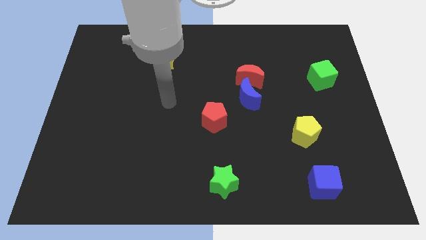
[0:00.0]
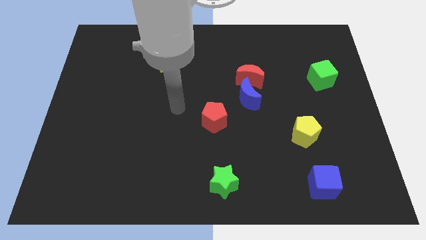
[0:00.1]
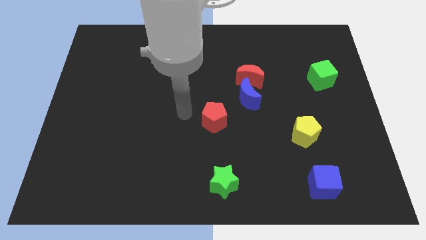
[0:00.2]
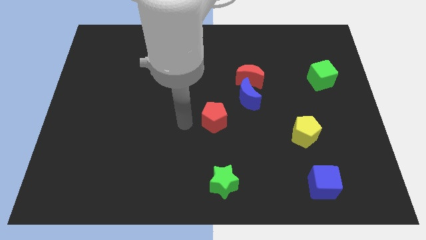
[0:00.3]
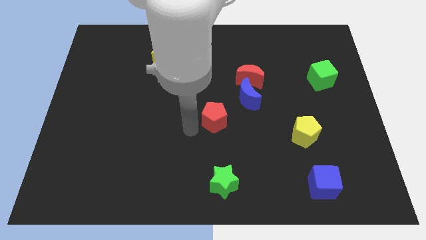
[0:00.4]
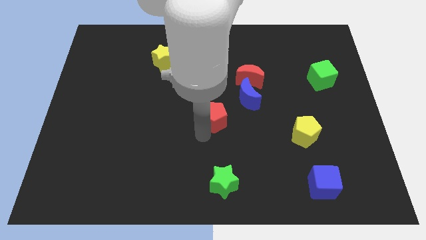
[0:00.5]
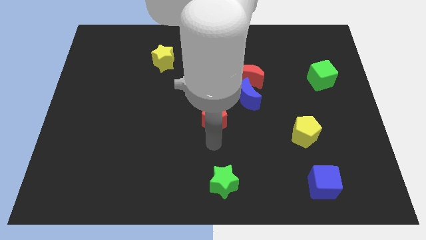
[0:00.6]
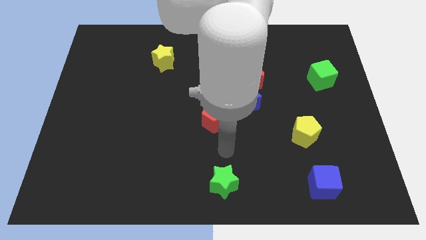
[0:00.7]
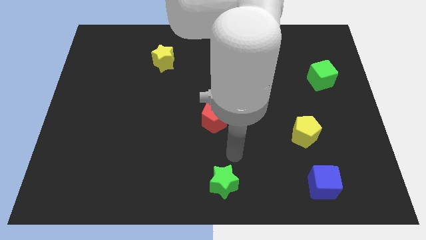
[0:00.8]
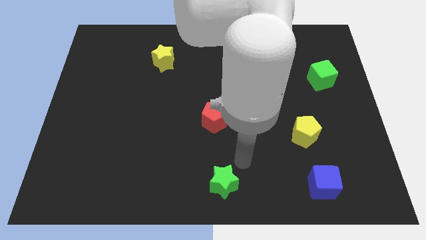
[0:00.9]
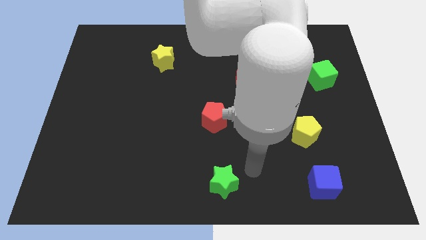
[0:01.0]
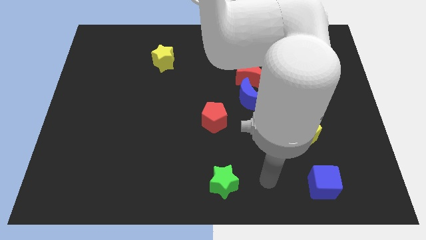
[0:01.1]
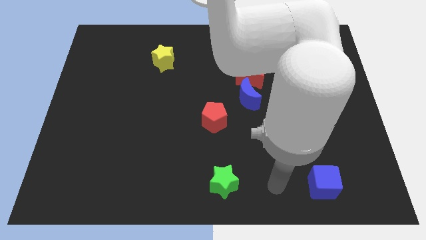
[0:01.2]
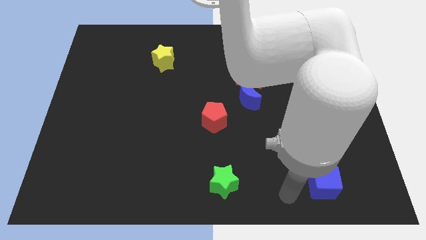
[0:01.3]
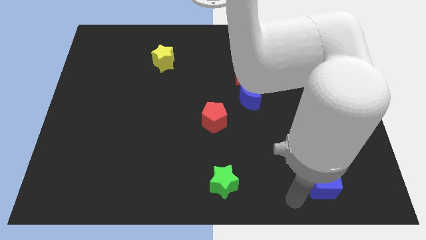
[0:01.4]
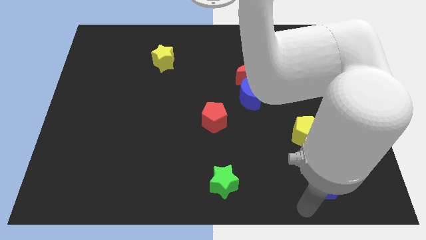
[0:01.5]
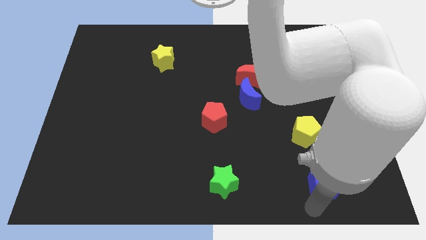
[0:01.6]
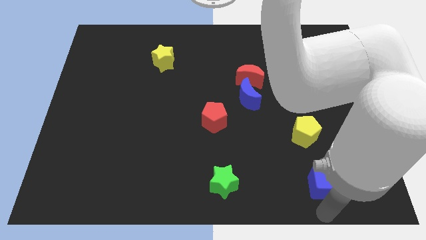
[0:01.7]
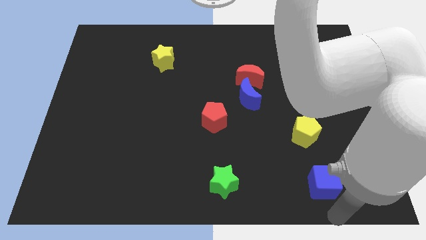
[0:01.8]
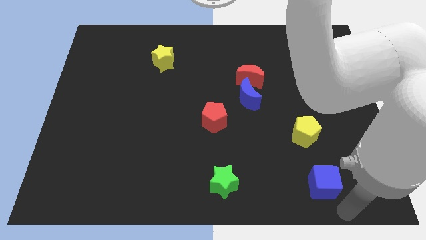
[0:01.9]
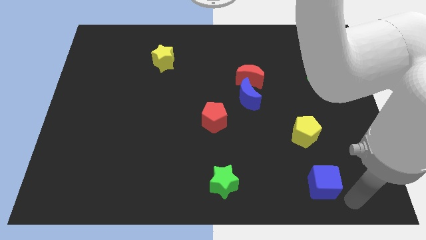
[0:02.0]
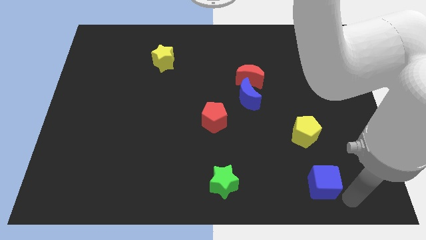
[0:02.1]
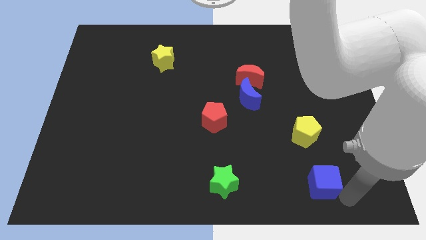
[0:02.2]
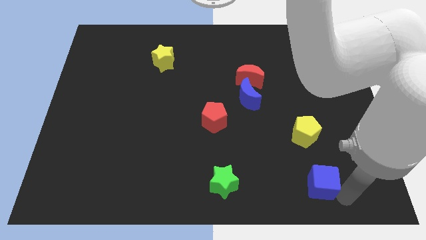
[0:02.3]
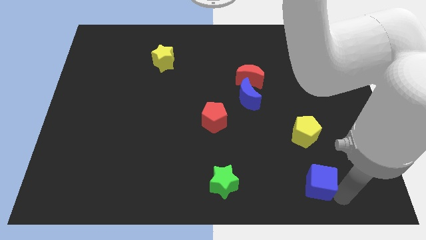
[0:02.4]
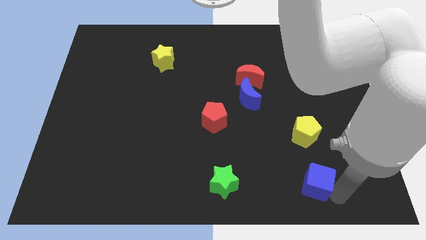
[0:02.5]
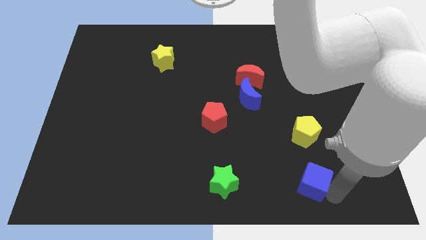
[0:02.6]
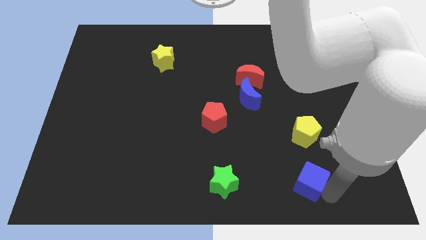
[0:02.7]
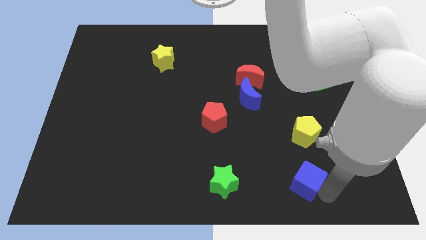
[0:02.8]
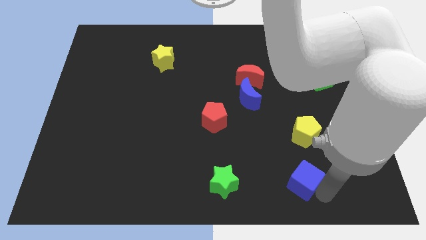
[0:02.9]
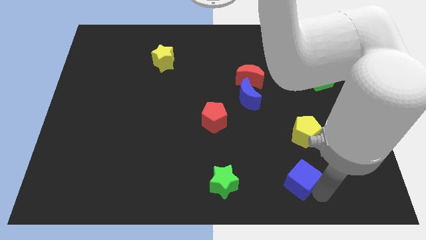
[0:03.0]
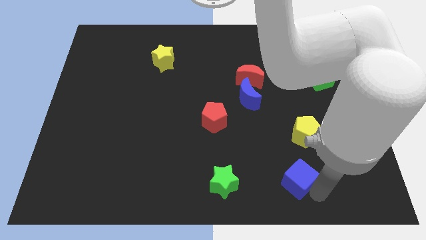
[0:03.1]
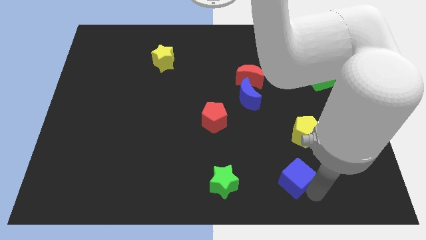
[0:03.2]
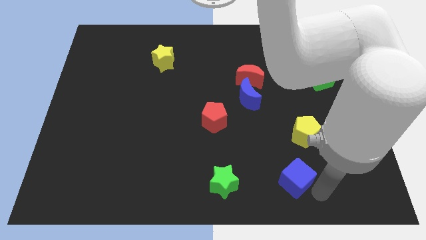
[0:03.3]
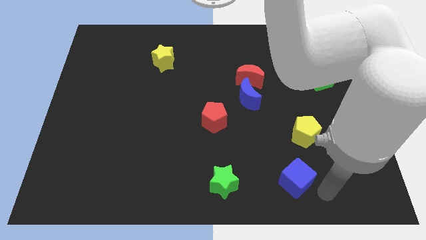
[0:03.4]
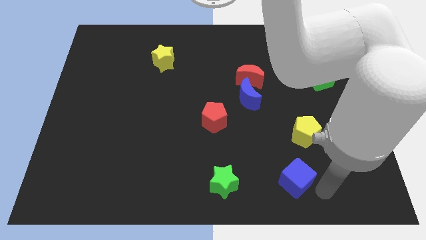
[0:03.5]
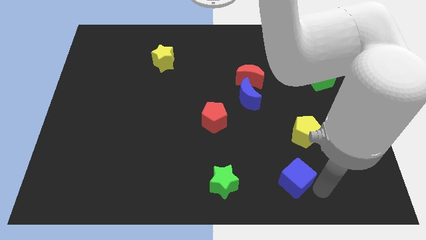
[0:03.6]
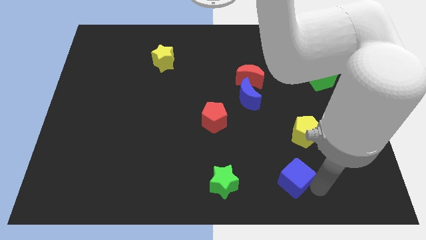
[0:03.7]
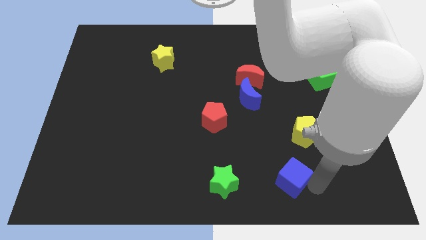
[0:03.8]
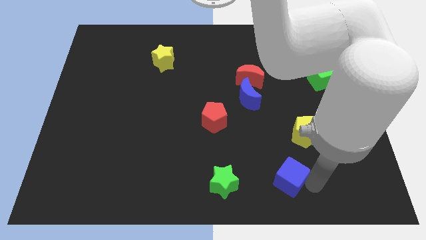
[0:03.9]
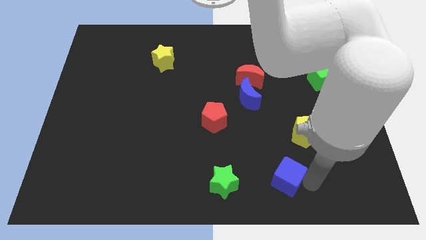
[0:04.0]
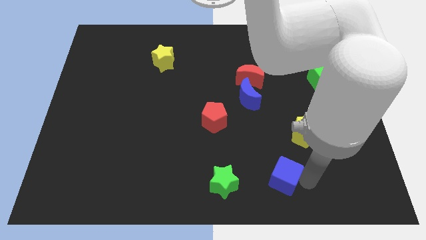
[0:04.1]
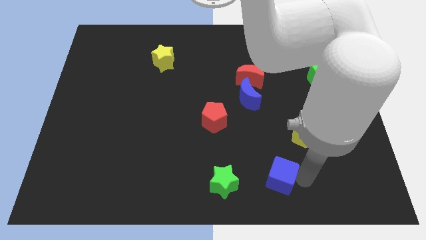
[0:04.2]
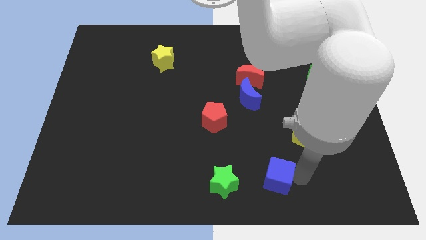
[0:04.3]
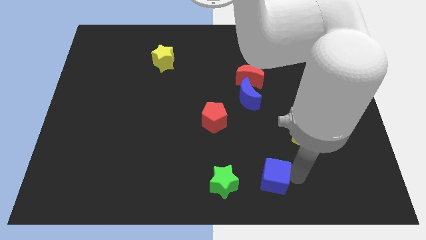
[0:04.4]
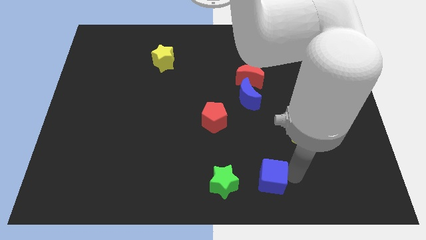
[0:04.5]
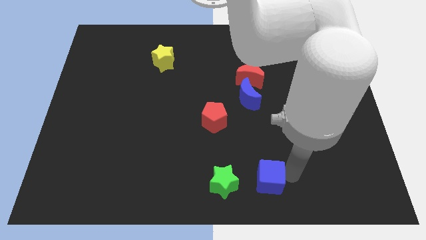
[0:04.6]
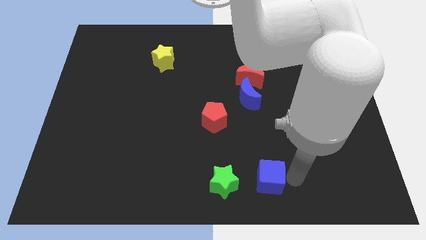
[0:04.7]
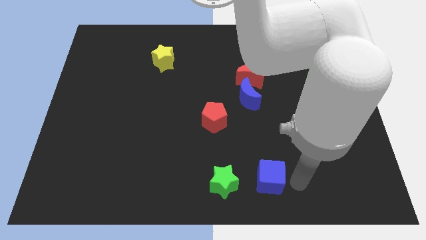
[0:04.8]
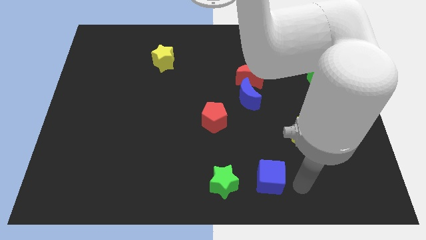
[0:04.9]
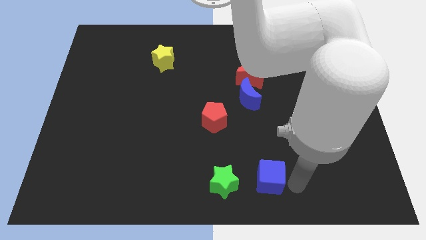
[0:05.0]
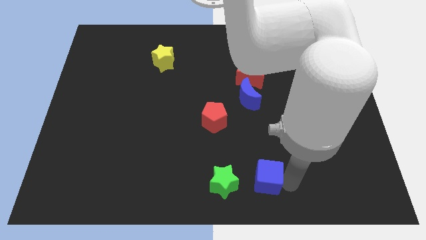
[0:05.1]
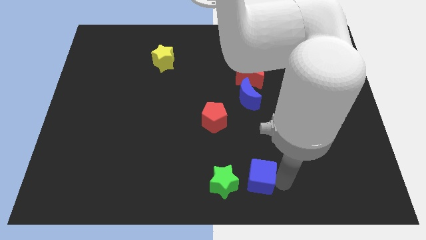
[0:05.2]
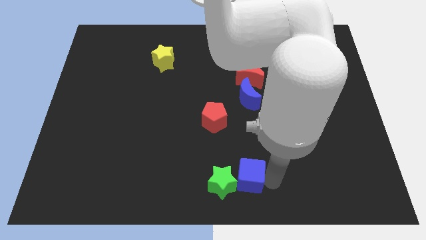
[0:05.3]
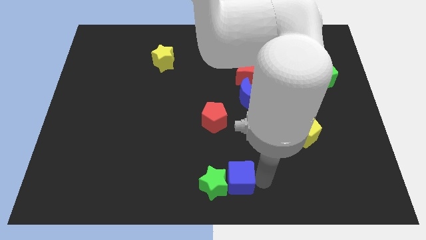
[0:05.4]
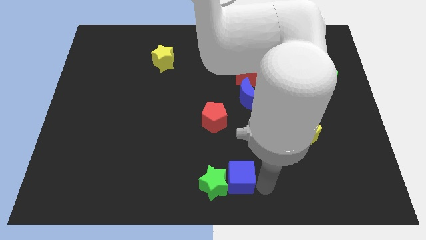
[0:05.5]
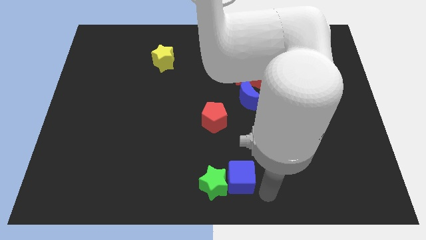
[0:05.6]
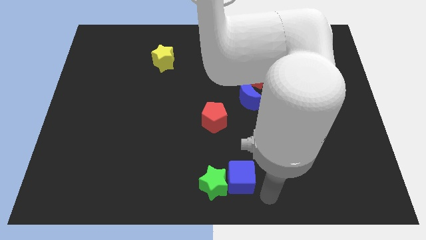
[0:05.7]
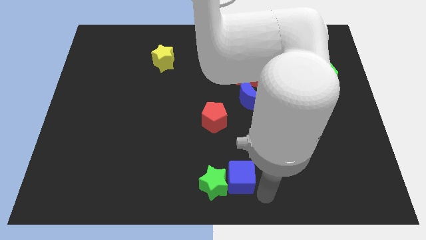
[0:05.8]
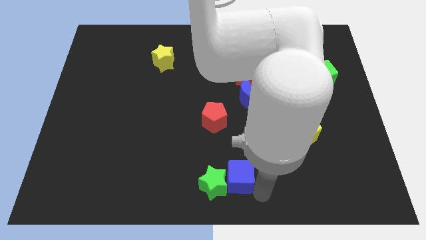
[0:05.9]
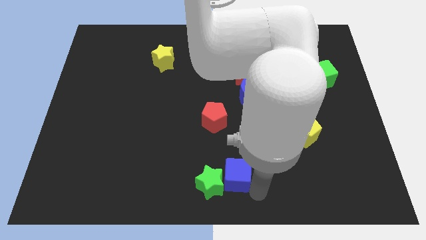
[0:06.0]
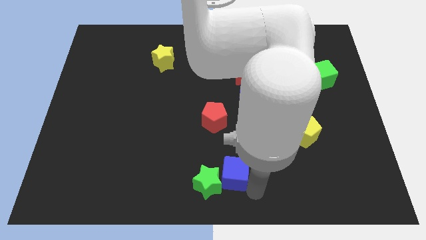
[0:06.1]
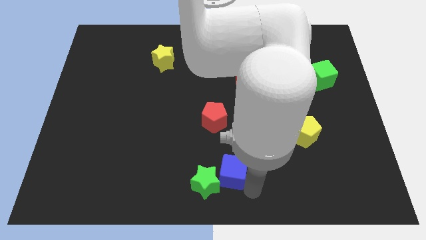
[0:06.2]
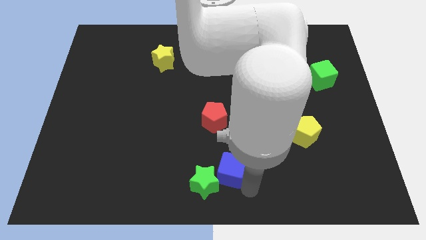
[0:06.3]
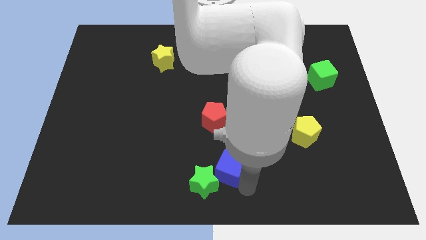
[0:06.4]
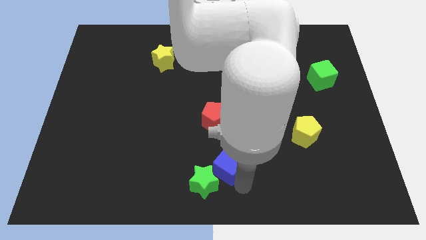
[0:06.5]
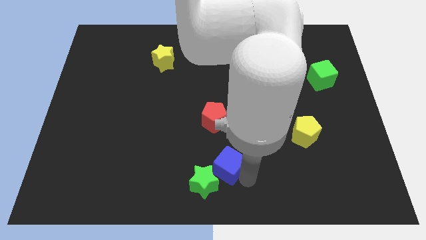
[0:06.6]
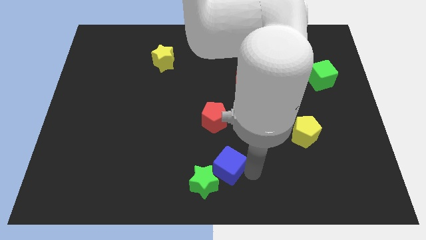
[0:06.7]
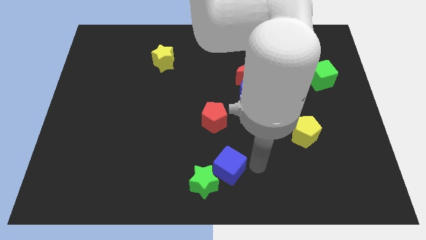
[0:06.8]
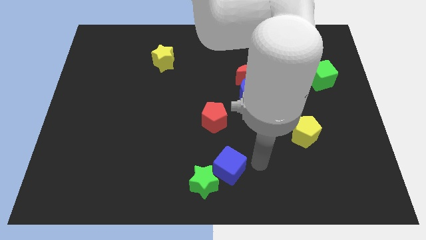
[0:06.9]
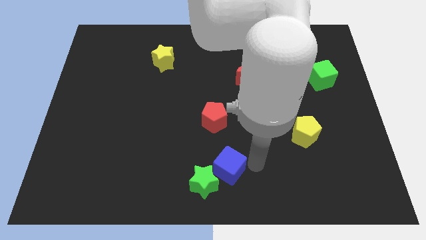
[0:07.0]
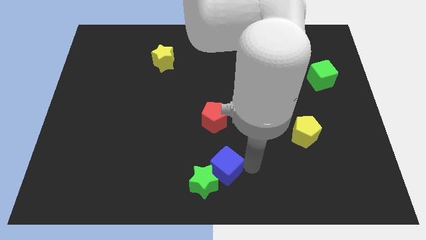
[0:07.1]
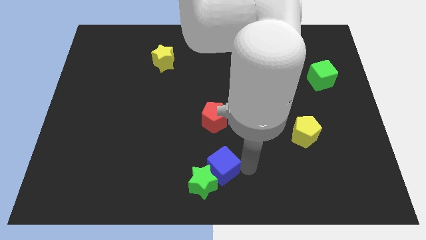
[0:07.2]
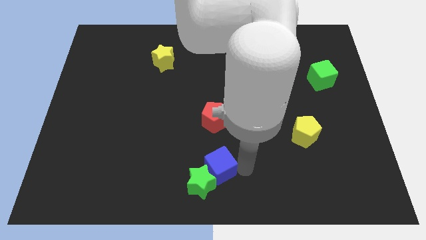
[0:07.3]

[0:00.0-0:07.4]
push the blue cube to the left

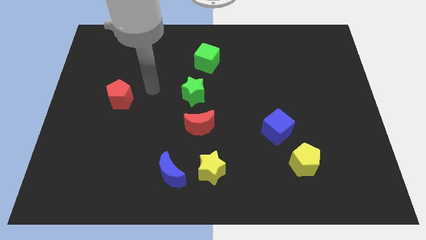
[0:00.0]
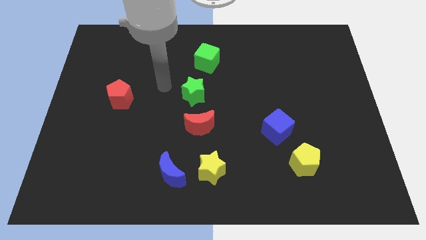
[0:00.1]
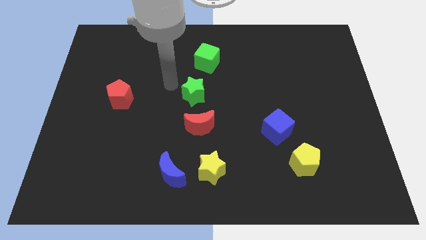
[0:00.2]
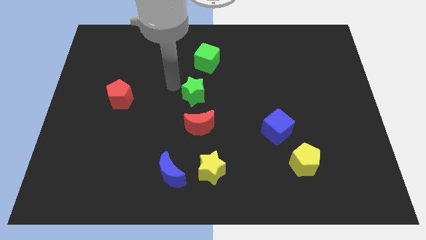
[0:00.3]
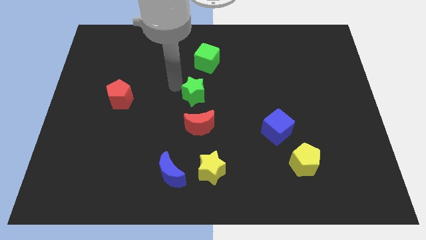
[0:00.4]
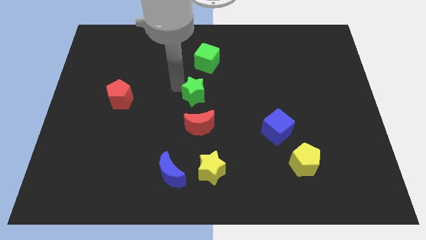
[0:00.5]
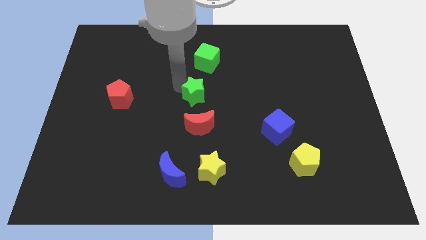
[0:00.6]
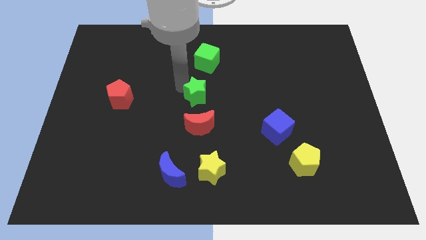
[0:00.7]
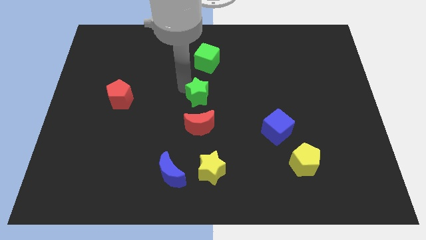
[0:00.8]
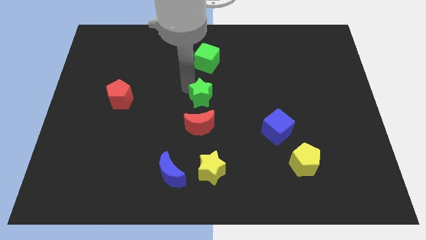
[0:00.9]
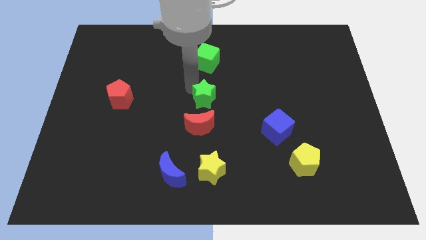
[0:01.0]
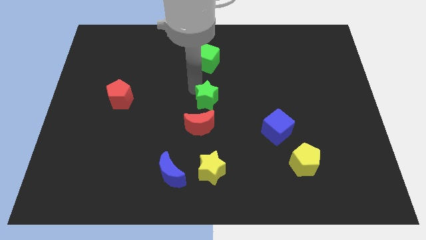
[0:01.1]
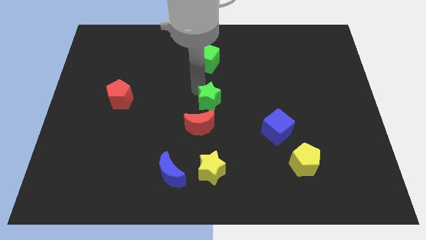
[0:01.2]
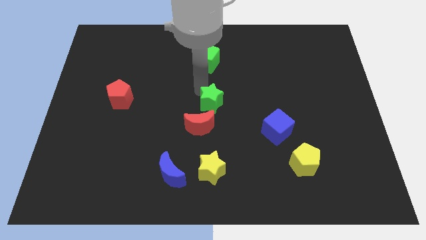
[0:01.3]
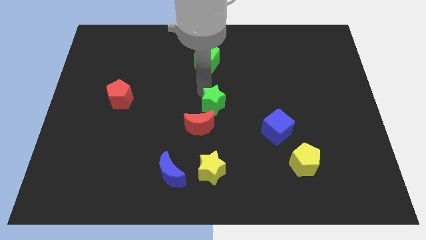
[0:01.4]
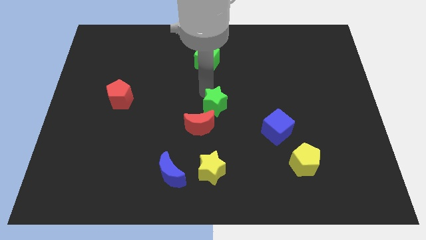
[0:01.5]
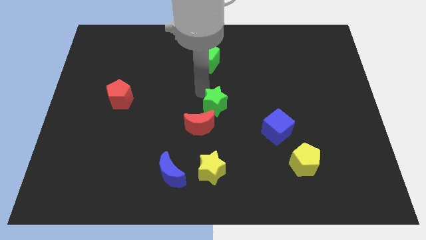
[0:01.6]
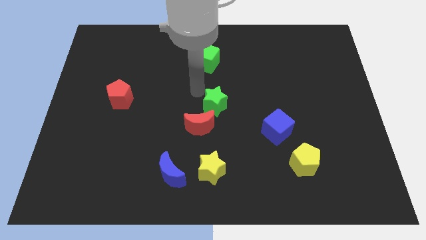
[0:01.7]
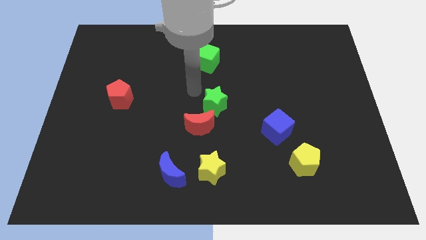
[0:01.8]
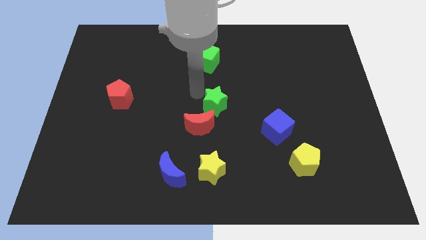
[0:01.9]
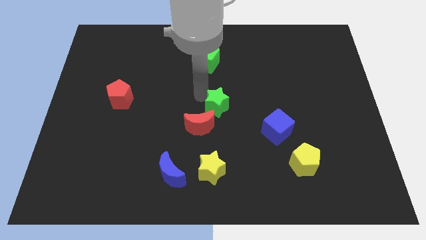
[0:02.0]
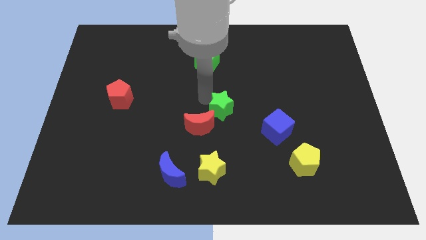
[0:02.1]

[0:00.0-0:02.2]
slightly push the green star downwards and right
